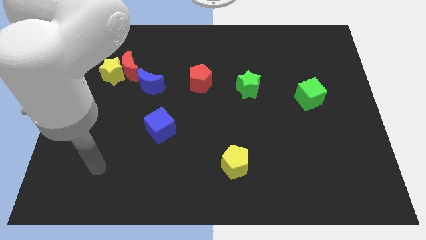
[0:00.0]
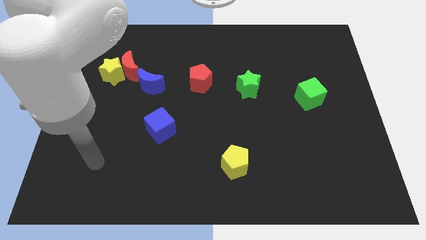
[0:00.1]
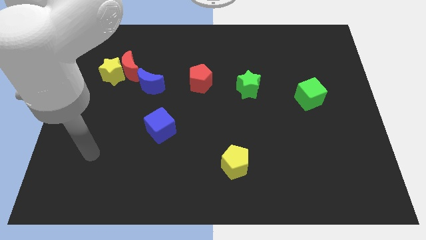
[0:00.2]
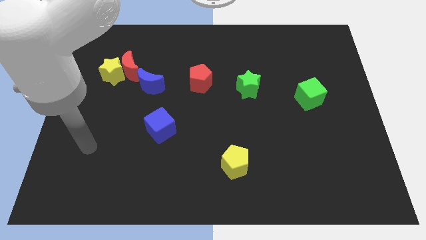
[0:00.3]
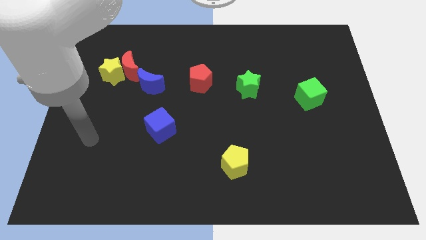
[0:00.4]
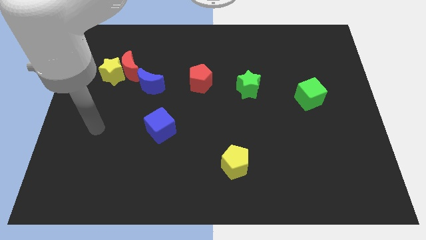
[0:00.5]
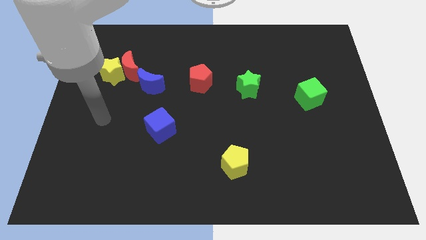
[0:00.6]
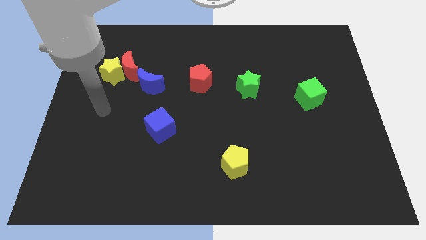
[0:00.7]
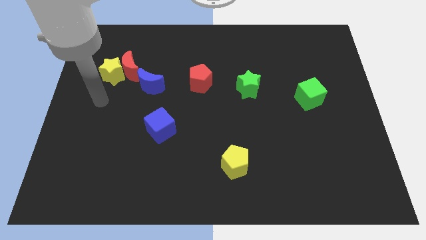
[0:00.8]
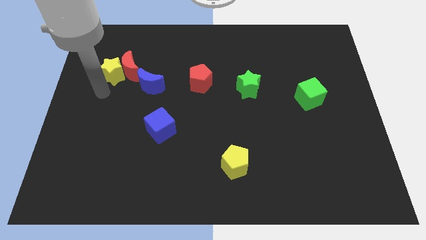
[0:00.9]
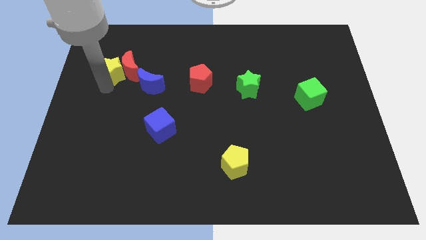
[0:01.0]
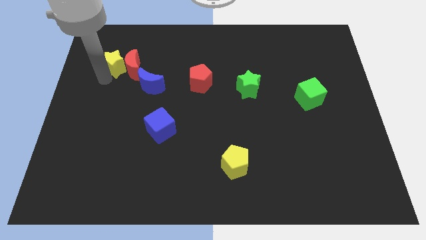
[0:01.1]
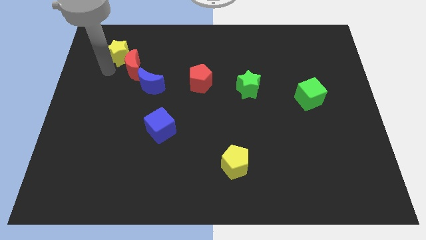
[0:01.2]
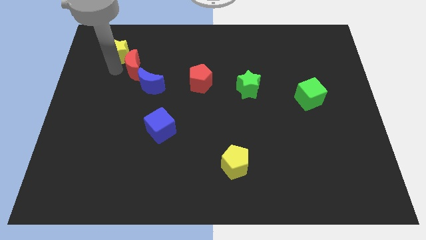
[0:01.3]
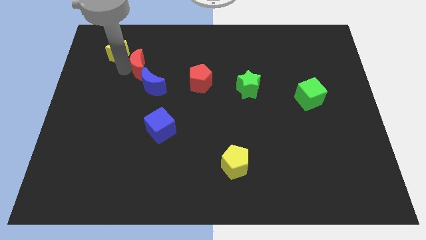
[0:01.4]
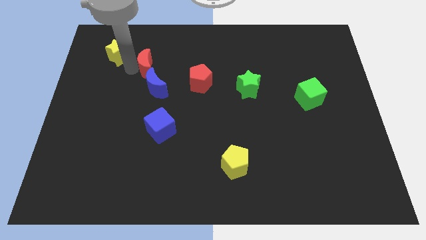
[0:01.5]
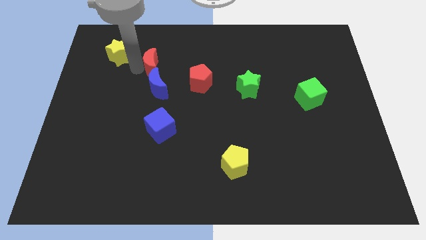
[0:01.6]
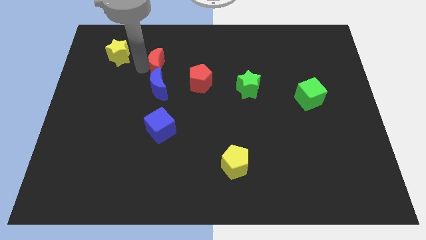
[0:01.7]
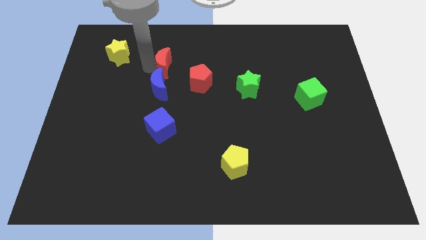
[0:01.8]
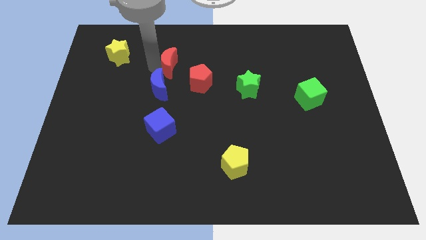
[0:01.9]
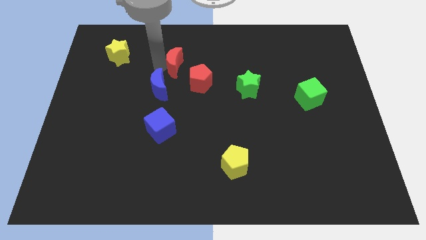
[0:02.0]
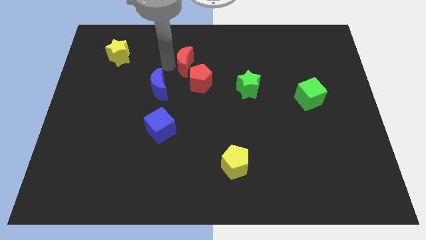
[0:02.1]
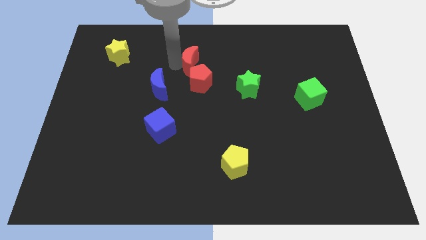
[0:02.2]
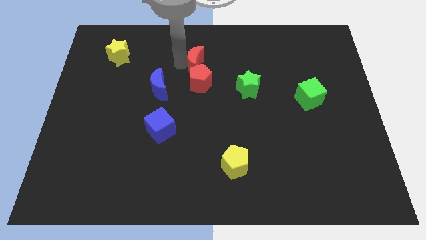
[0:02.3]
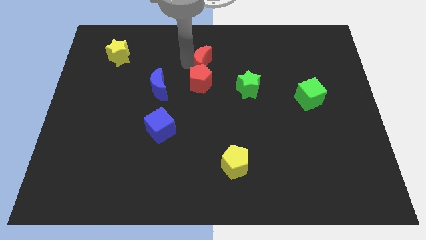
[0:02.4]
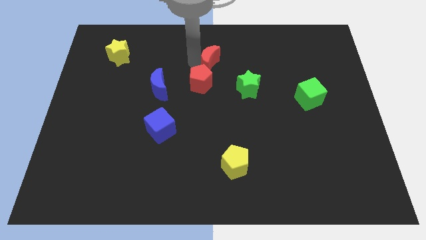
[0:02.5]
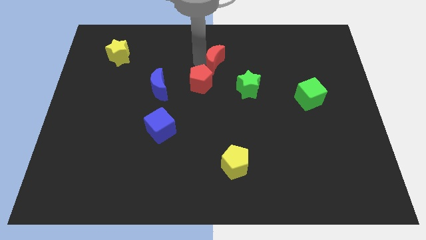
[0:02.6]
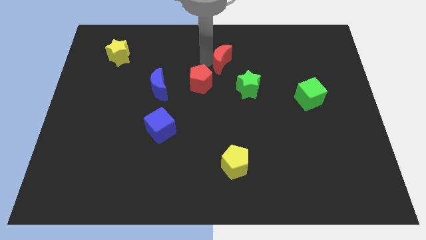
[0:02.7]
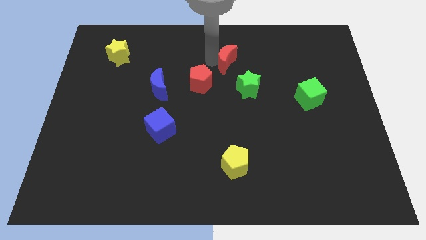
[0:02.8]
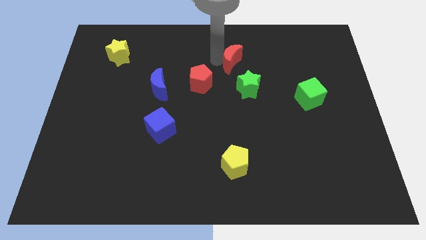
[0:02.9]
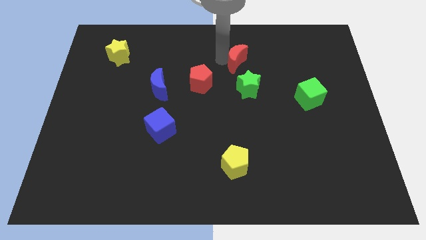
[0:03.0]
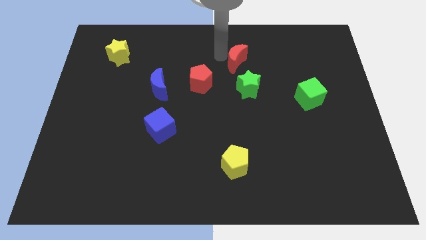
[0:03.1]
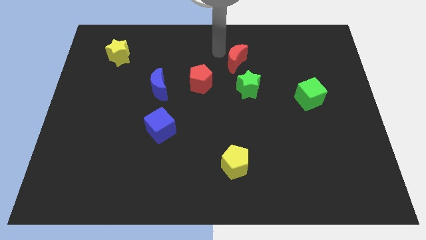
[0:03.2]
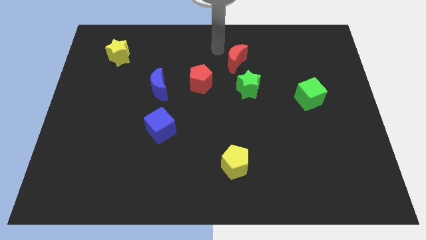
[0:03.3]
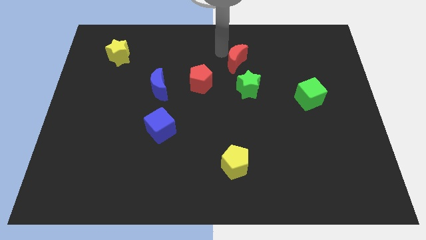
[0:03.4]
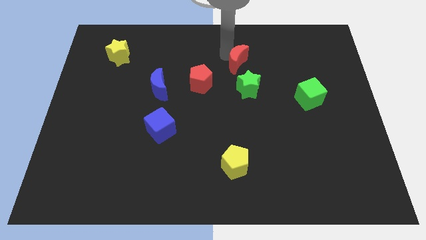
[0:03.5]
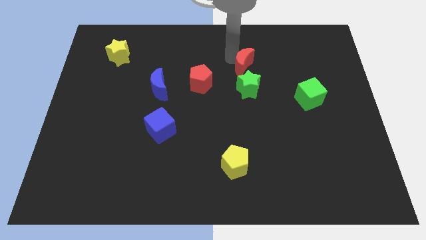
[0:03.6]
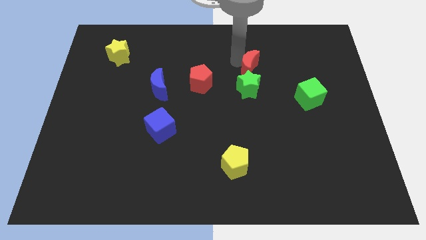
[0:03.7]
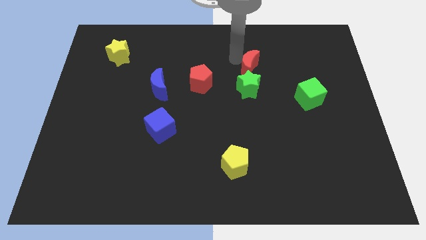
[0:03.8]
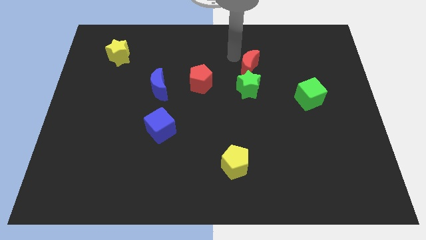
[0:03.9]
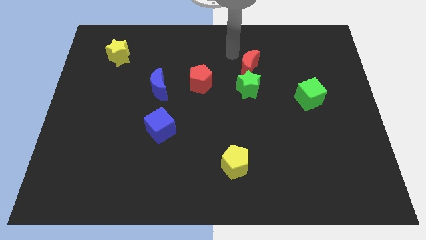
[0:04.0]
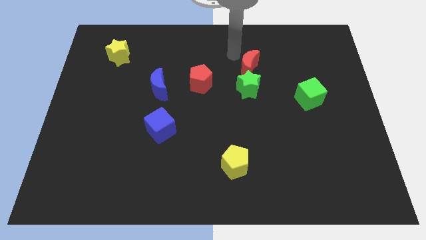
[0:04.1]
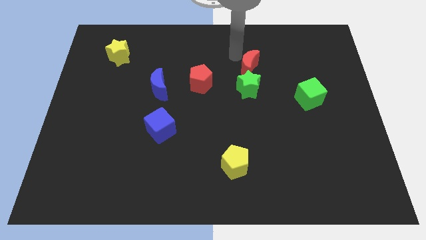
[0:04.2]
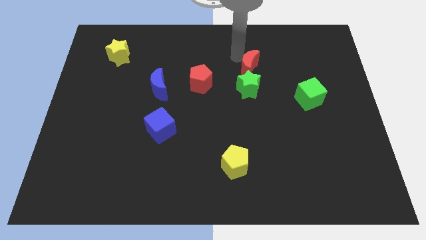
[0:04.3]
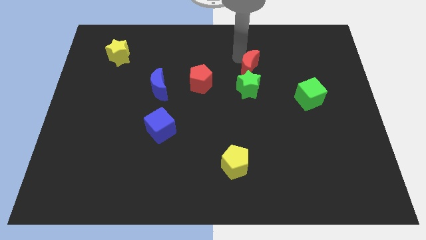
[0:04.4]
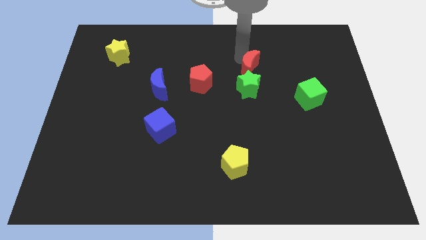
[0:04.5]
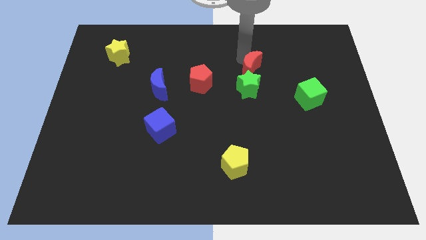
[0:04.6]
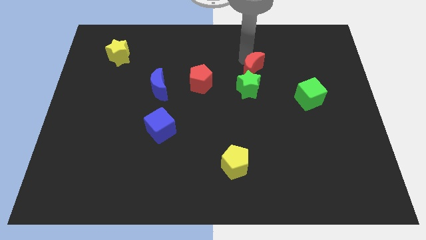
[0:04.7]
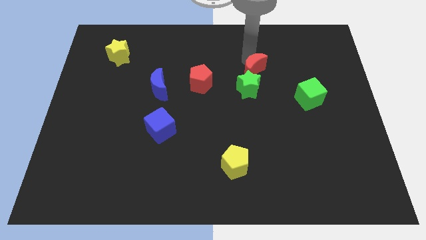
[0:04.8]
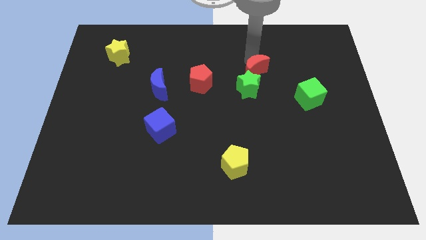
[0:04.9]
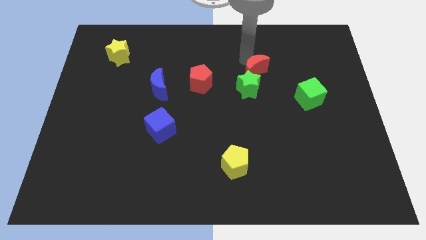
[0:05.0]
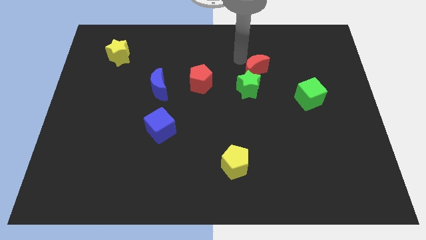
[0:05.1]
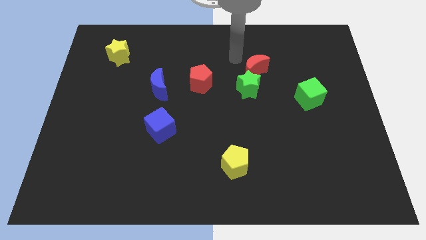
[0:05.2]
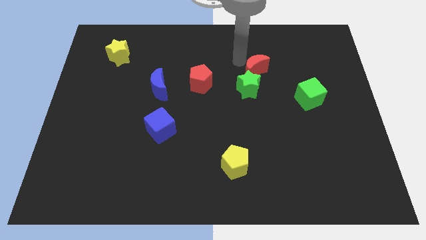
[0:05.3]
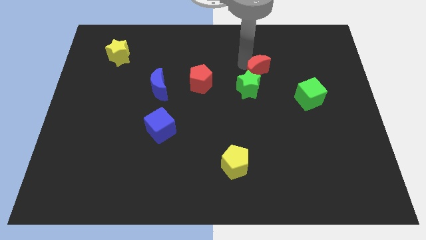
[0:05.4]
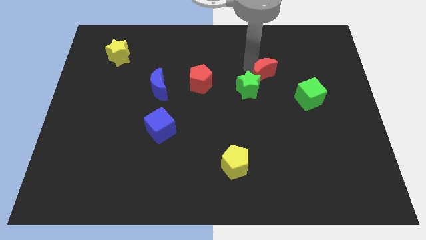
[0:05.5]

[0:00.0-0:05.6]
slide the red moon just right of the green star

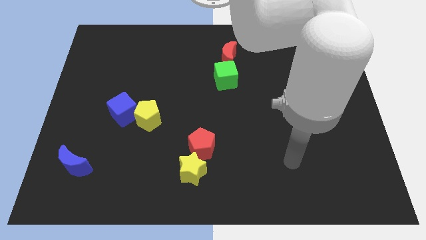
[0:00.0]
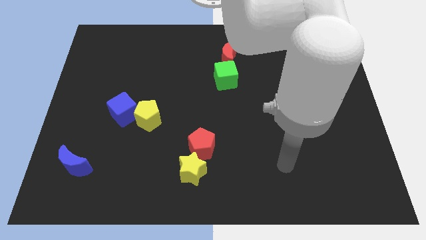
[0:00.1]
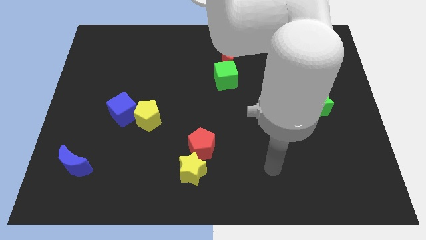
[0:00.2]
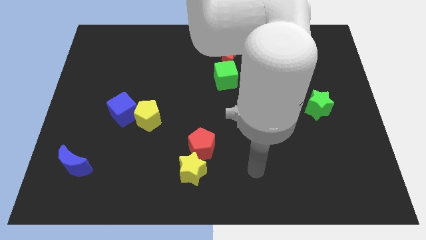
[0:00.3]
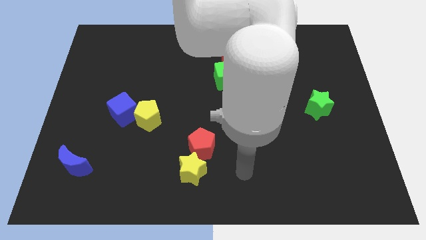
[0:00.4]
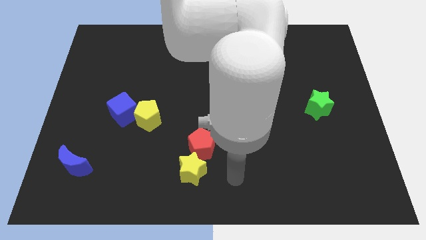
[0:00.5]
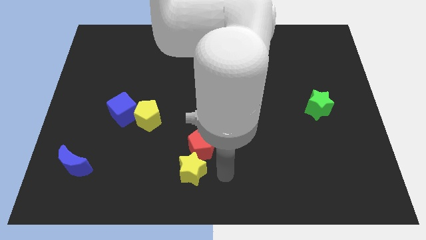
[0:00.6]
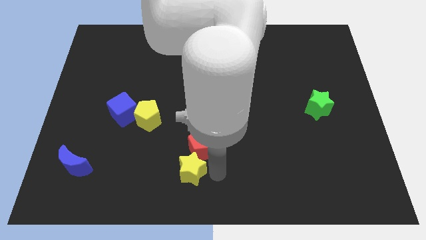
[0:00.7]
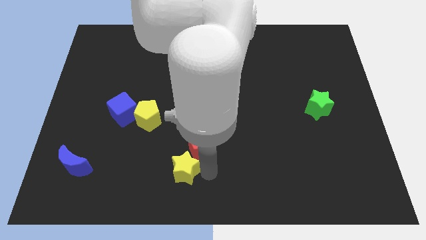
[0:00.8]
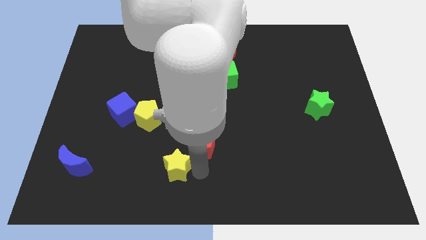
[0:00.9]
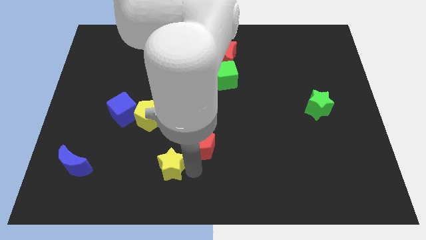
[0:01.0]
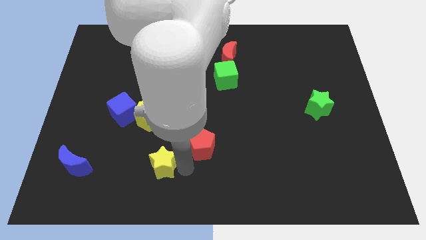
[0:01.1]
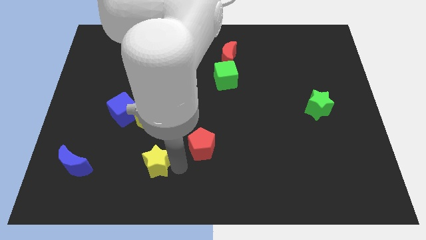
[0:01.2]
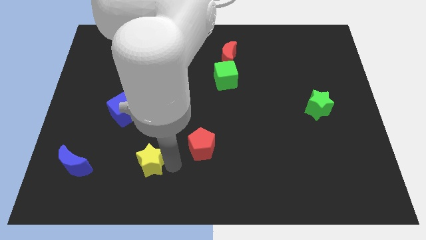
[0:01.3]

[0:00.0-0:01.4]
slide the yellow star just right of the blue moon
